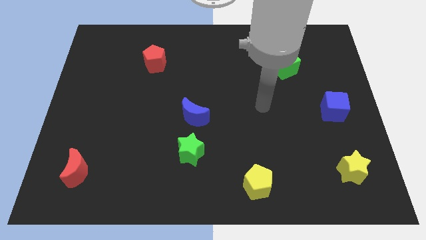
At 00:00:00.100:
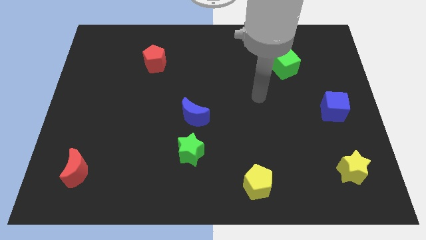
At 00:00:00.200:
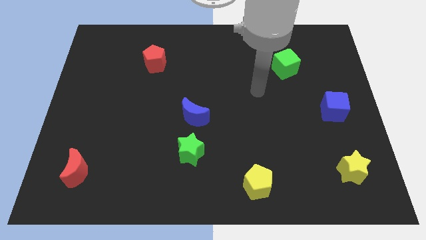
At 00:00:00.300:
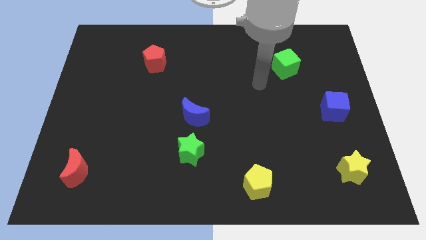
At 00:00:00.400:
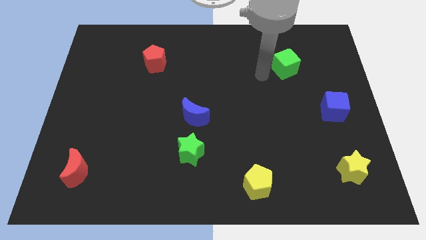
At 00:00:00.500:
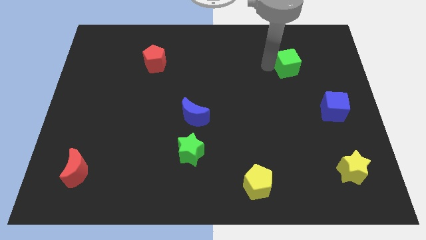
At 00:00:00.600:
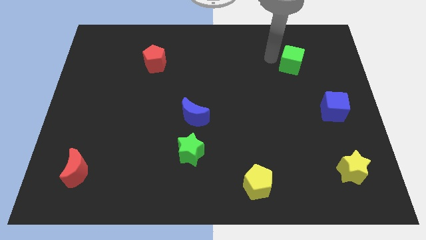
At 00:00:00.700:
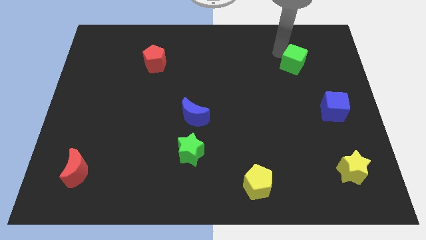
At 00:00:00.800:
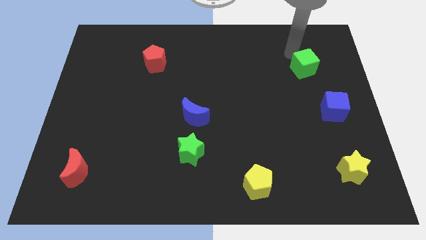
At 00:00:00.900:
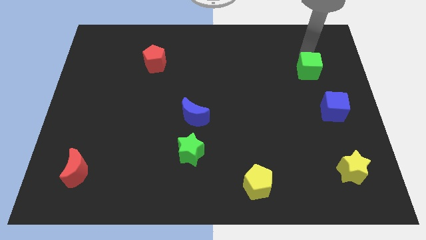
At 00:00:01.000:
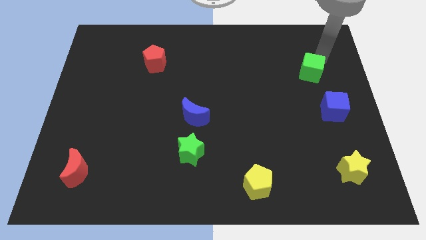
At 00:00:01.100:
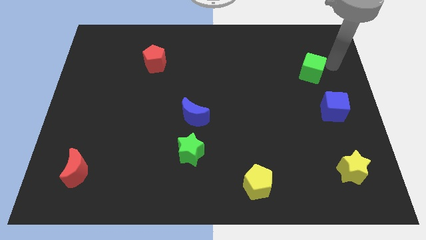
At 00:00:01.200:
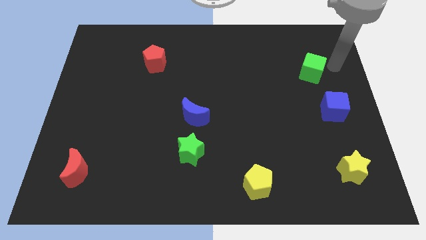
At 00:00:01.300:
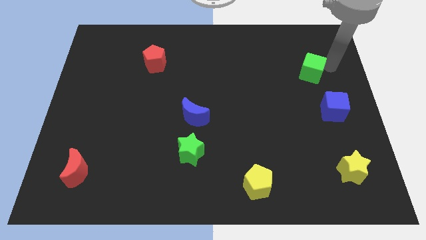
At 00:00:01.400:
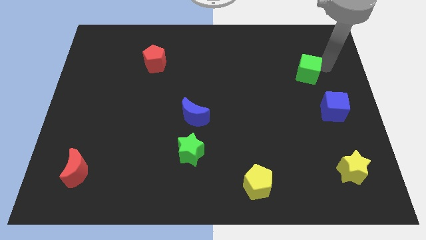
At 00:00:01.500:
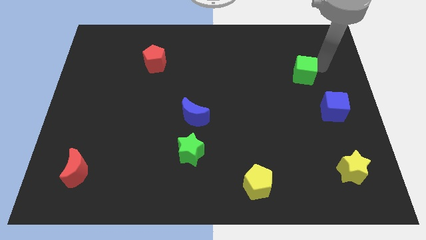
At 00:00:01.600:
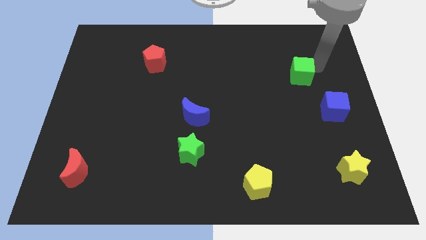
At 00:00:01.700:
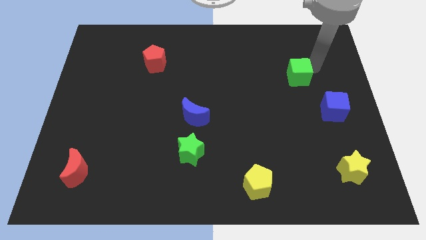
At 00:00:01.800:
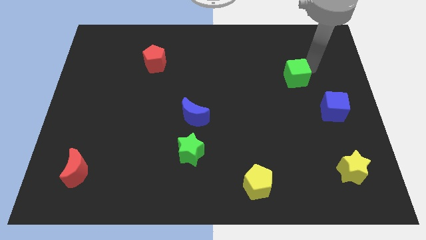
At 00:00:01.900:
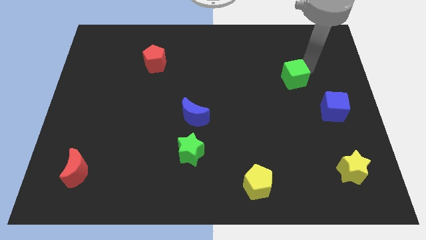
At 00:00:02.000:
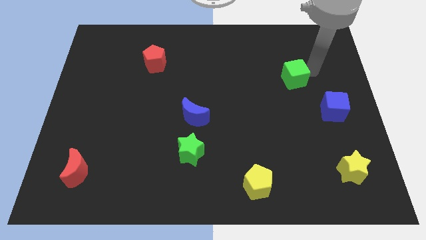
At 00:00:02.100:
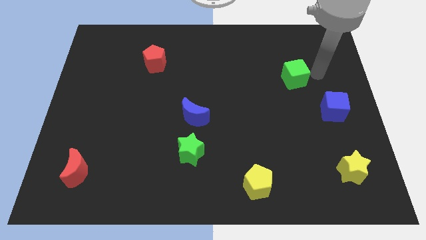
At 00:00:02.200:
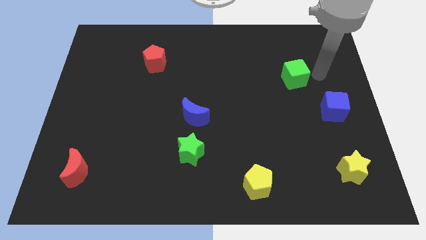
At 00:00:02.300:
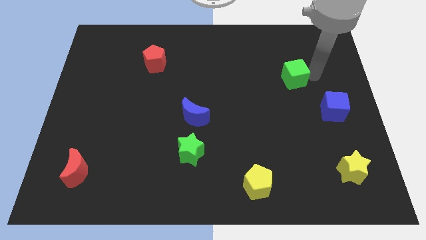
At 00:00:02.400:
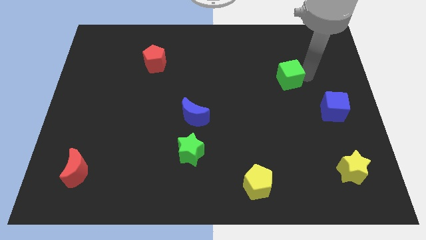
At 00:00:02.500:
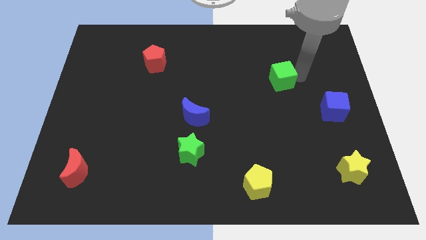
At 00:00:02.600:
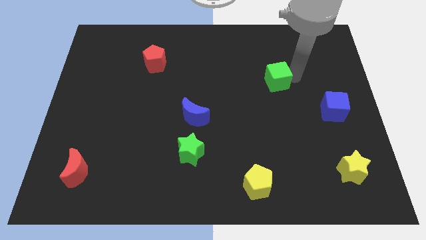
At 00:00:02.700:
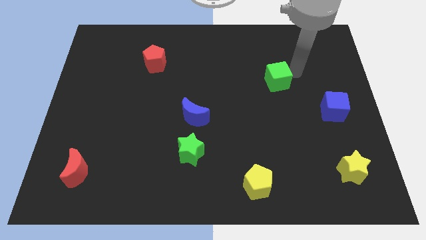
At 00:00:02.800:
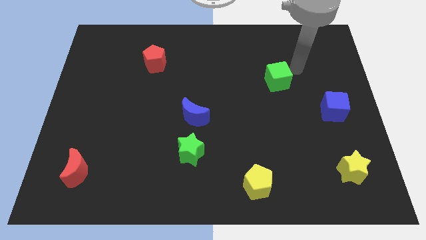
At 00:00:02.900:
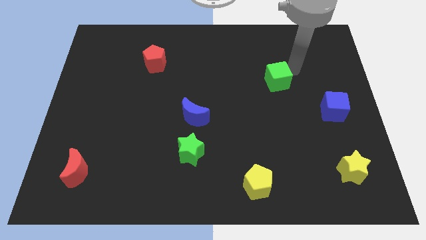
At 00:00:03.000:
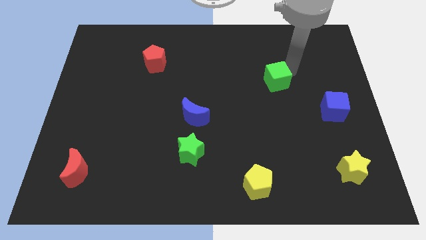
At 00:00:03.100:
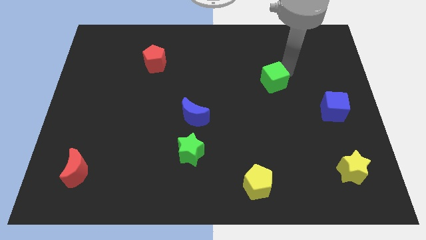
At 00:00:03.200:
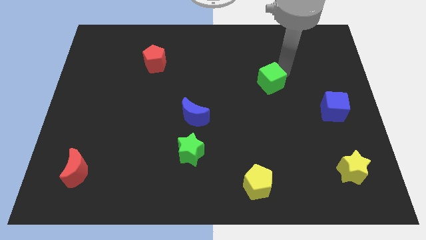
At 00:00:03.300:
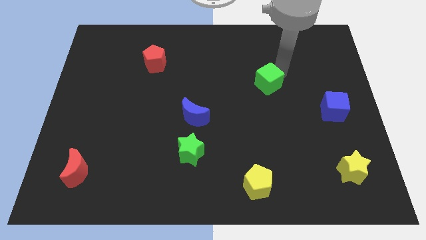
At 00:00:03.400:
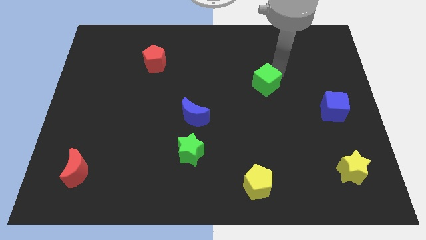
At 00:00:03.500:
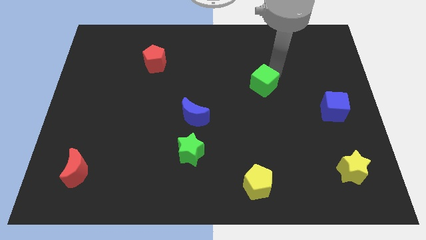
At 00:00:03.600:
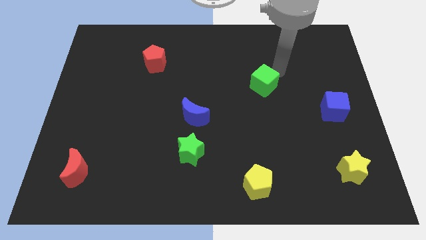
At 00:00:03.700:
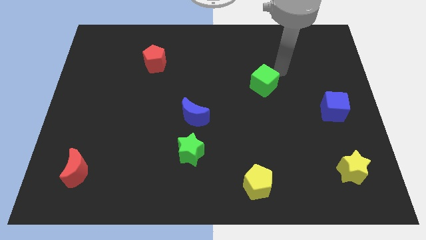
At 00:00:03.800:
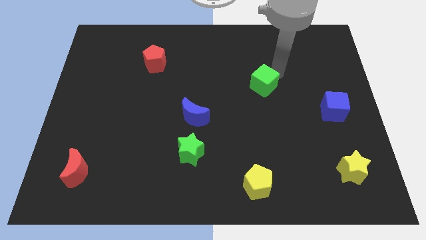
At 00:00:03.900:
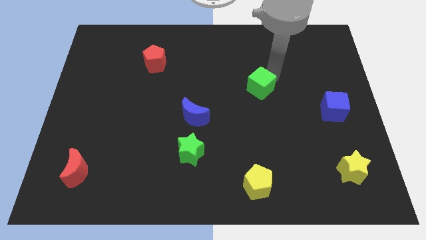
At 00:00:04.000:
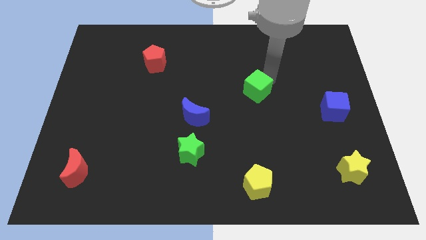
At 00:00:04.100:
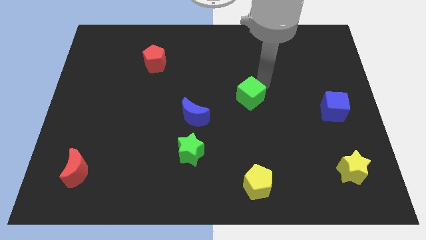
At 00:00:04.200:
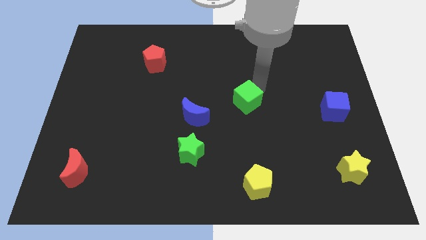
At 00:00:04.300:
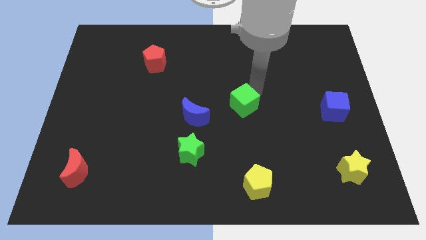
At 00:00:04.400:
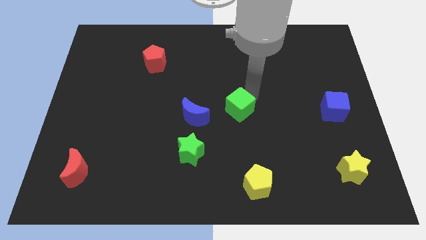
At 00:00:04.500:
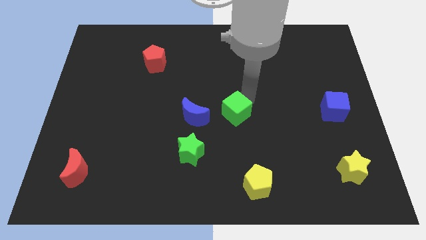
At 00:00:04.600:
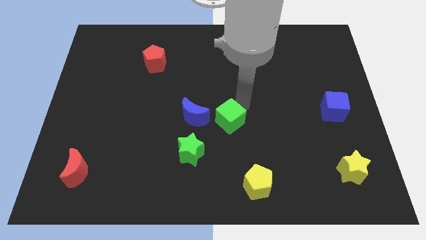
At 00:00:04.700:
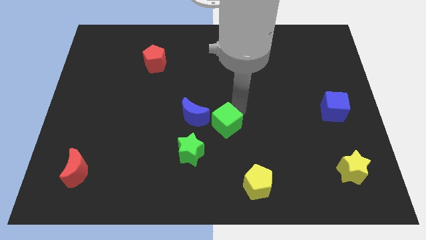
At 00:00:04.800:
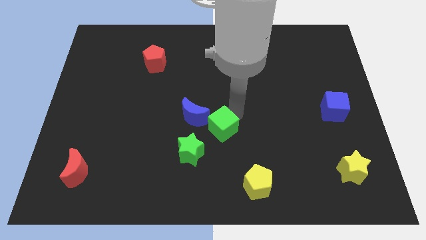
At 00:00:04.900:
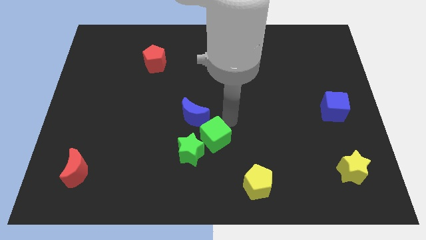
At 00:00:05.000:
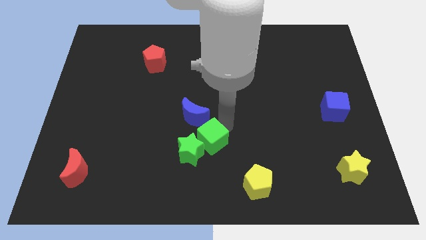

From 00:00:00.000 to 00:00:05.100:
slide the green cube close to the green star

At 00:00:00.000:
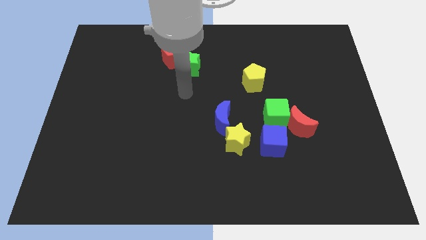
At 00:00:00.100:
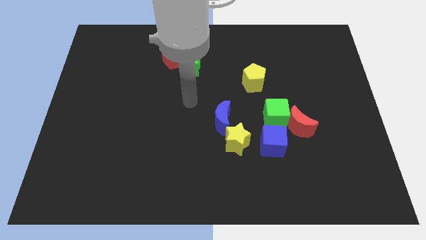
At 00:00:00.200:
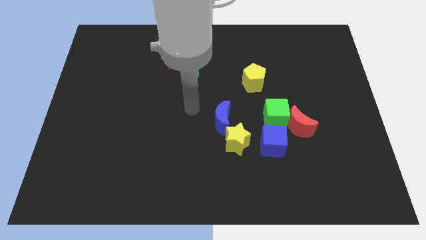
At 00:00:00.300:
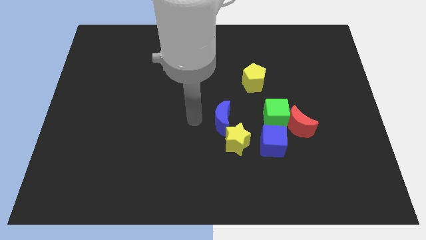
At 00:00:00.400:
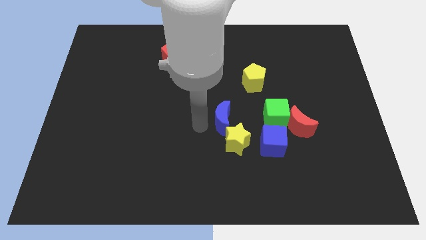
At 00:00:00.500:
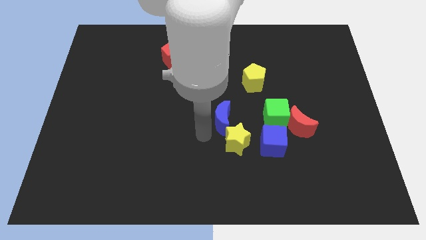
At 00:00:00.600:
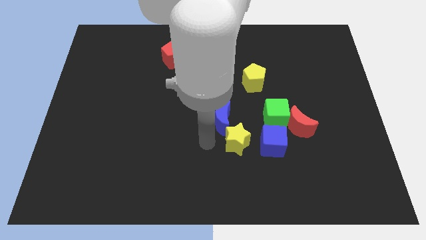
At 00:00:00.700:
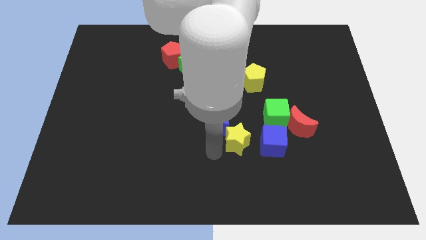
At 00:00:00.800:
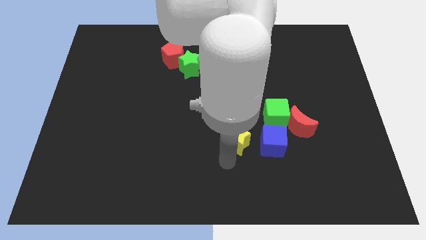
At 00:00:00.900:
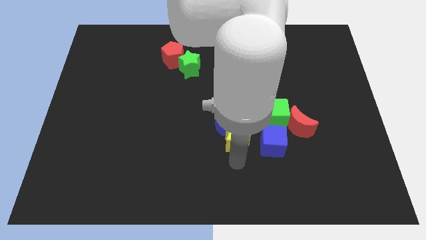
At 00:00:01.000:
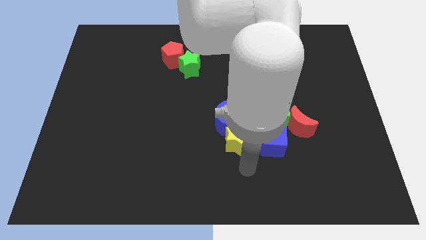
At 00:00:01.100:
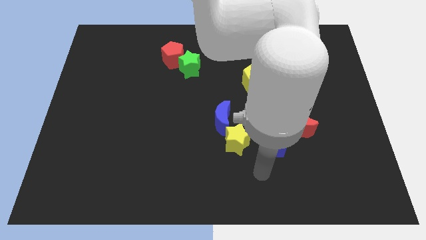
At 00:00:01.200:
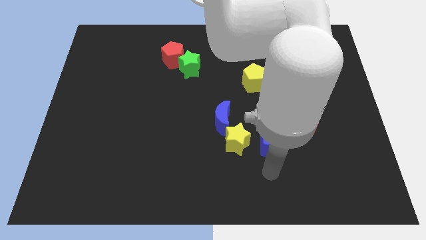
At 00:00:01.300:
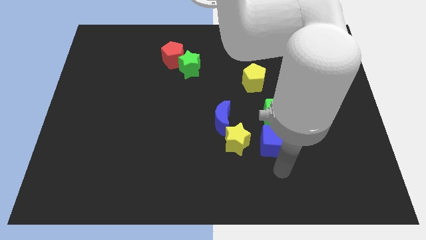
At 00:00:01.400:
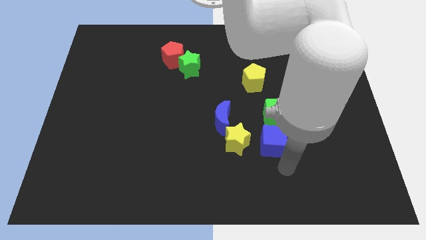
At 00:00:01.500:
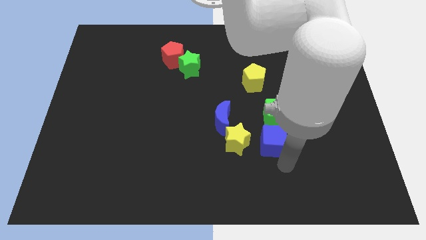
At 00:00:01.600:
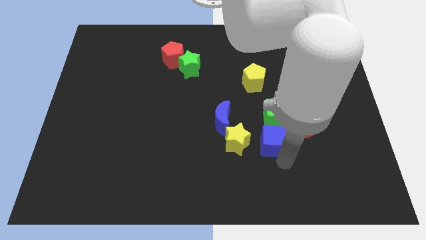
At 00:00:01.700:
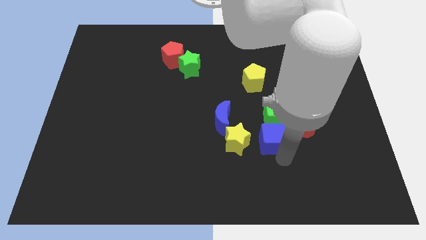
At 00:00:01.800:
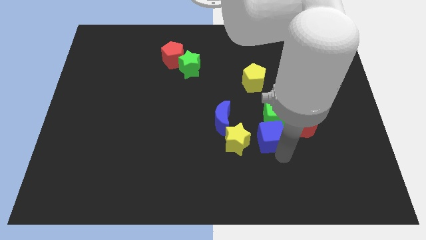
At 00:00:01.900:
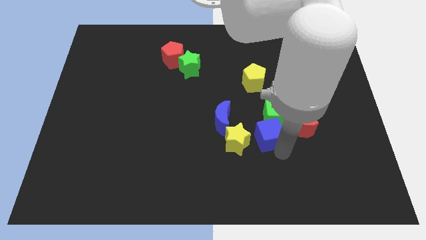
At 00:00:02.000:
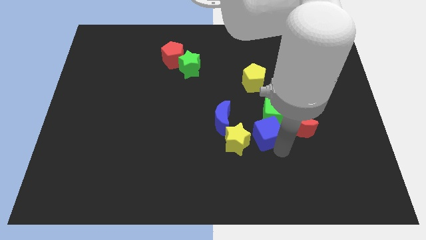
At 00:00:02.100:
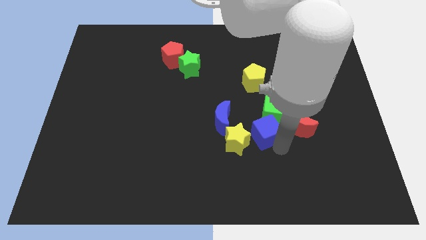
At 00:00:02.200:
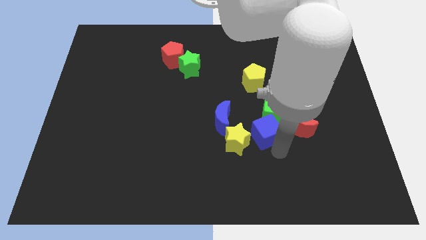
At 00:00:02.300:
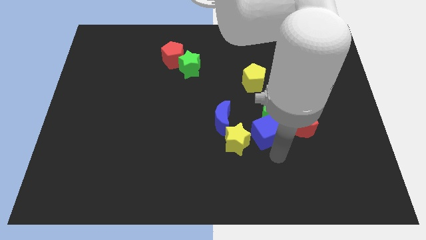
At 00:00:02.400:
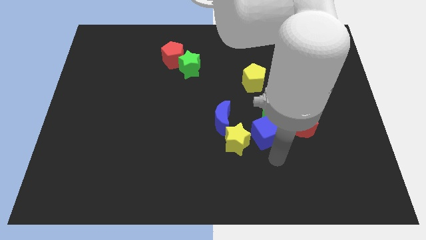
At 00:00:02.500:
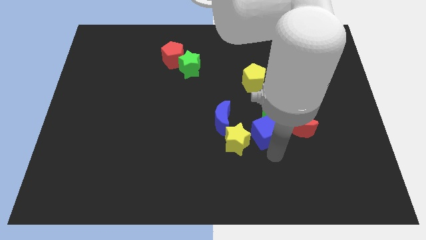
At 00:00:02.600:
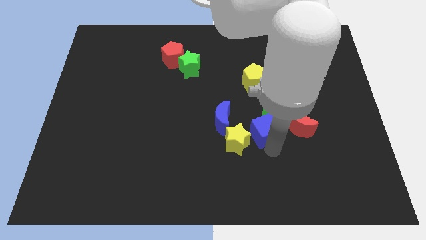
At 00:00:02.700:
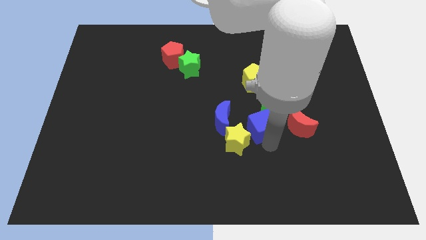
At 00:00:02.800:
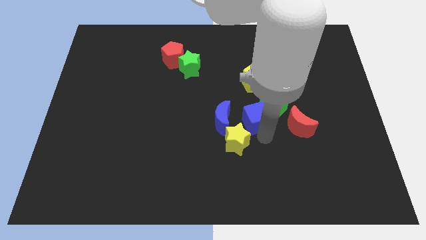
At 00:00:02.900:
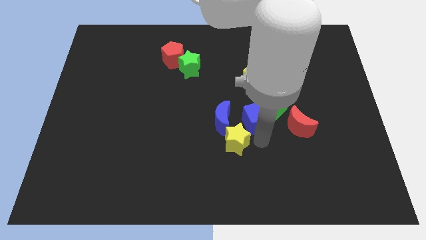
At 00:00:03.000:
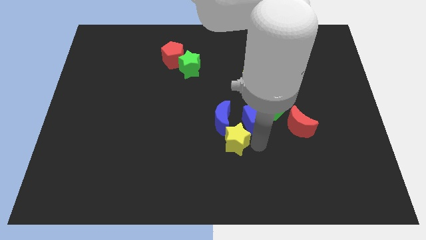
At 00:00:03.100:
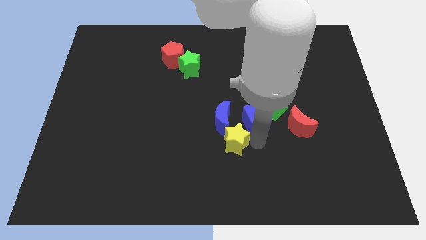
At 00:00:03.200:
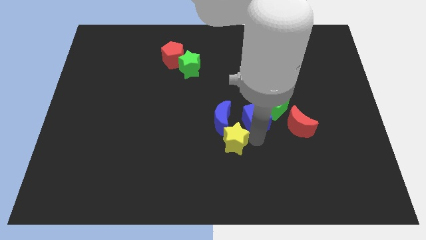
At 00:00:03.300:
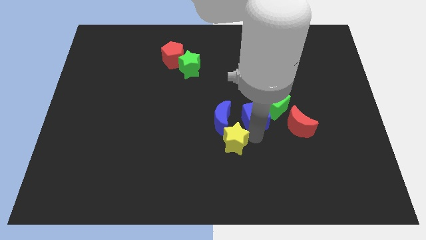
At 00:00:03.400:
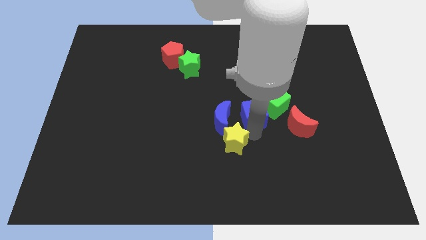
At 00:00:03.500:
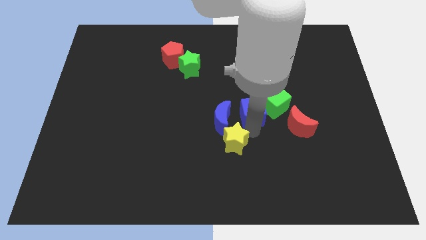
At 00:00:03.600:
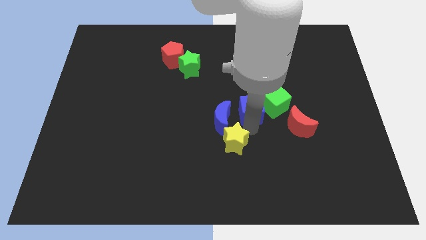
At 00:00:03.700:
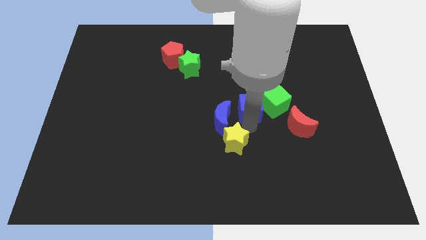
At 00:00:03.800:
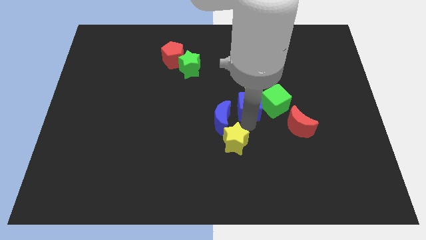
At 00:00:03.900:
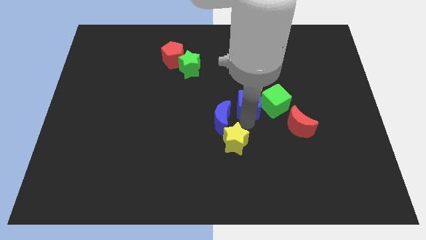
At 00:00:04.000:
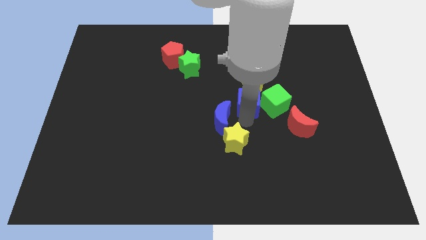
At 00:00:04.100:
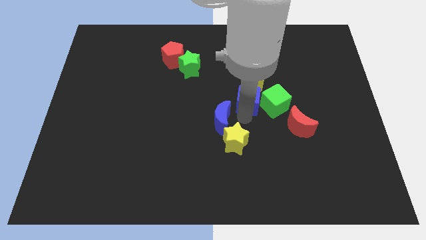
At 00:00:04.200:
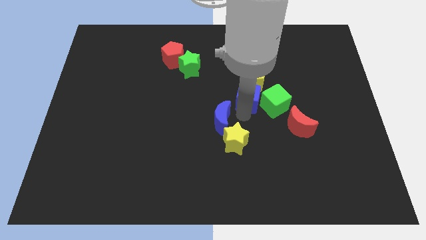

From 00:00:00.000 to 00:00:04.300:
push the blue cube towards the yellow pentagon
